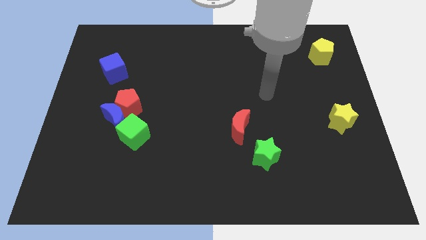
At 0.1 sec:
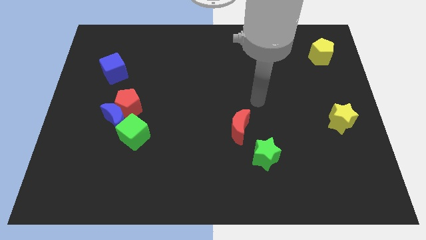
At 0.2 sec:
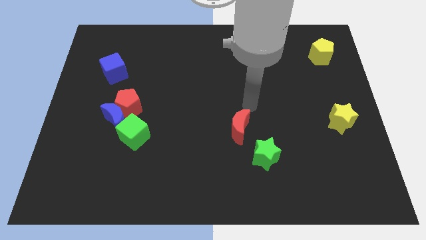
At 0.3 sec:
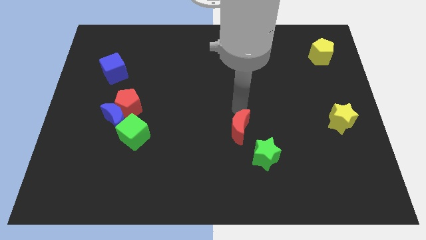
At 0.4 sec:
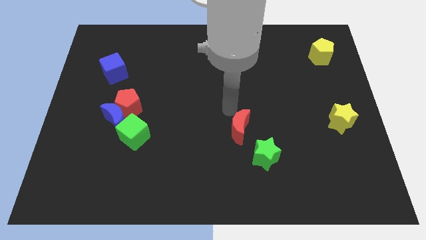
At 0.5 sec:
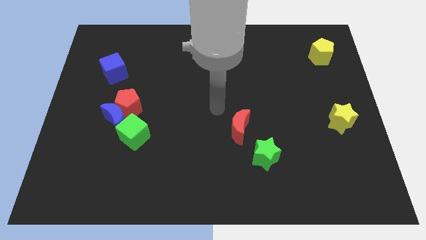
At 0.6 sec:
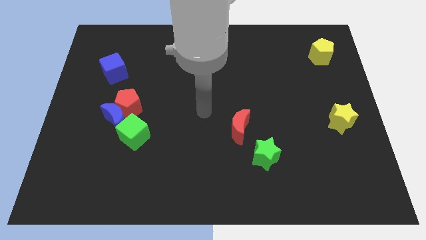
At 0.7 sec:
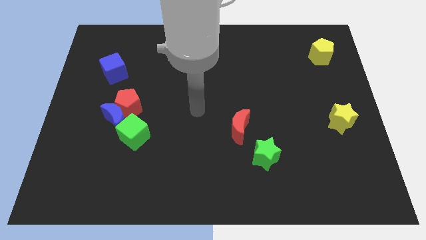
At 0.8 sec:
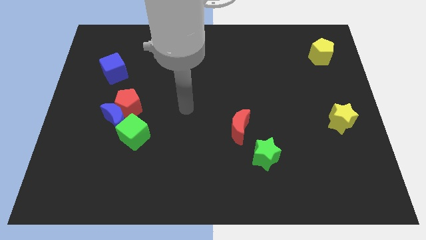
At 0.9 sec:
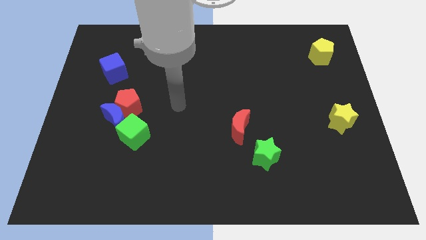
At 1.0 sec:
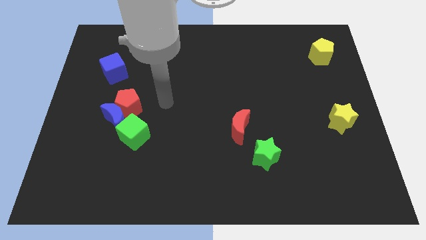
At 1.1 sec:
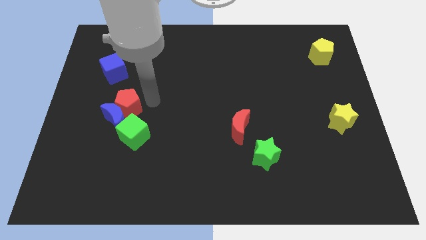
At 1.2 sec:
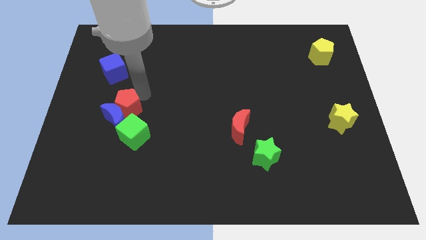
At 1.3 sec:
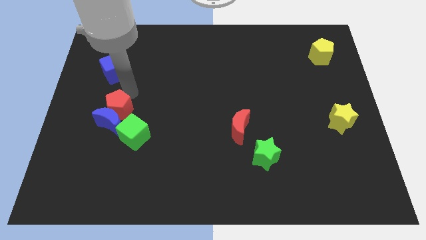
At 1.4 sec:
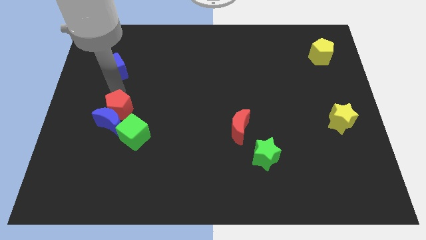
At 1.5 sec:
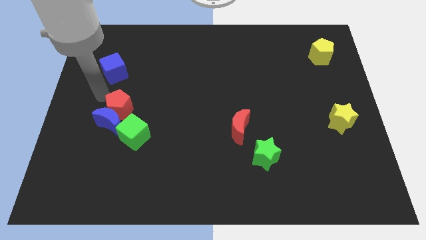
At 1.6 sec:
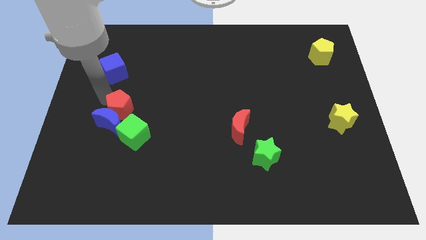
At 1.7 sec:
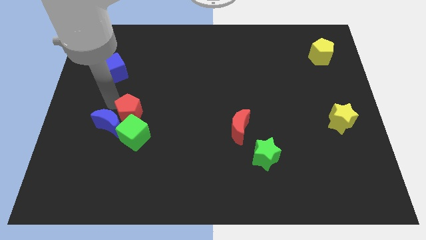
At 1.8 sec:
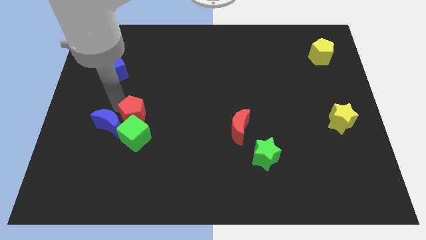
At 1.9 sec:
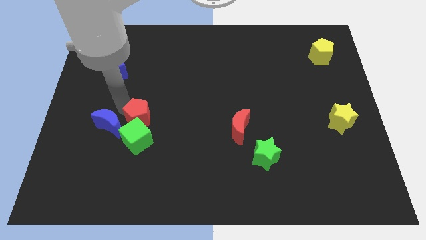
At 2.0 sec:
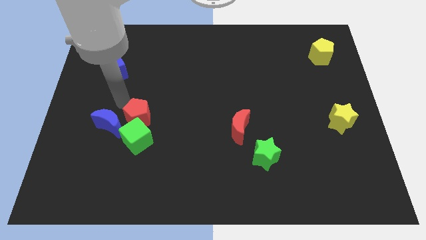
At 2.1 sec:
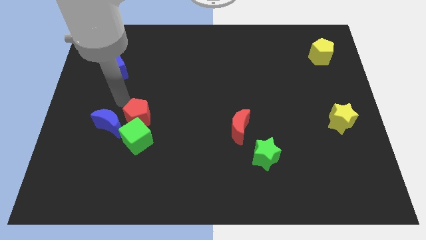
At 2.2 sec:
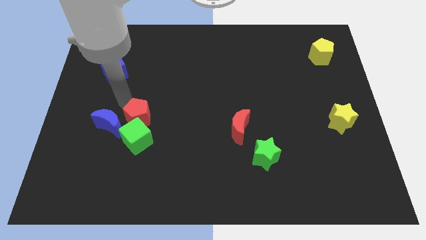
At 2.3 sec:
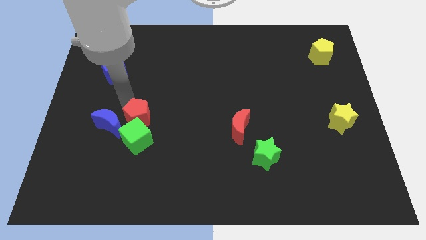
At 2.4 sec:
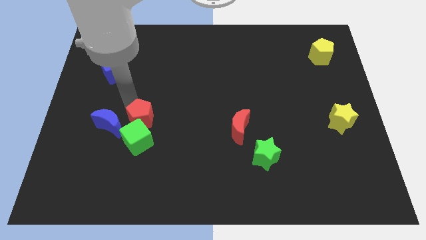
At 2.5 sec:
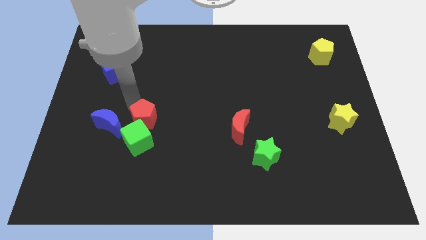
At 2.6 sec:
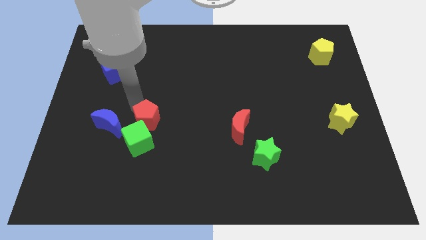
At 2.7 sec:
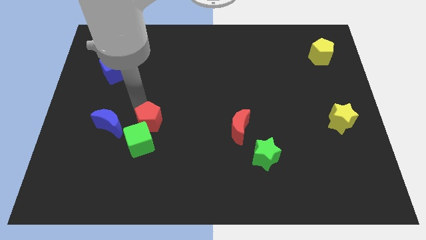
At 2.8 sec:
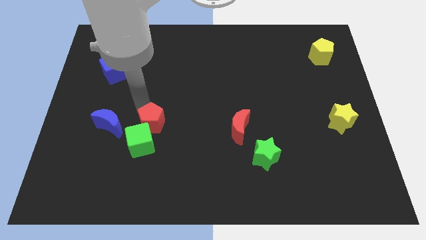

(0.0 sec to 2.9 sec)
move the red pentagon somewhat down and then to the right

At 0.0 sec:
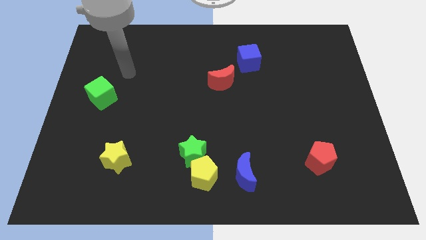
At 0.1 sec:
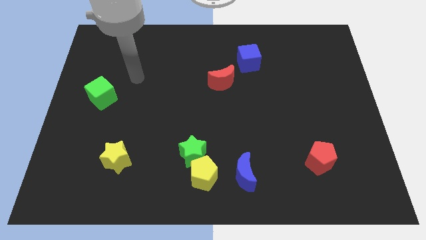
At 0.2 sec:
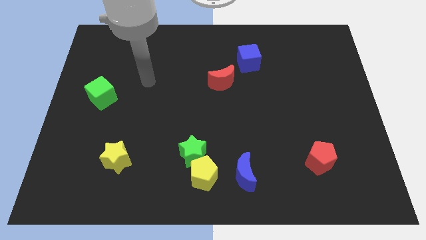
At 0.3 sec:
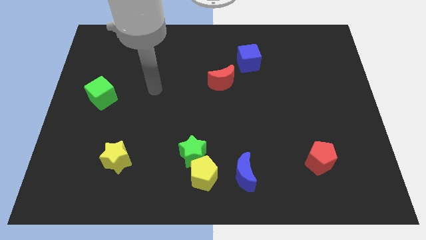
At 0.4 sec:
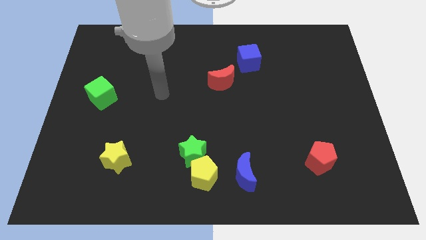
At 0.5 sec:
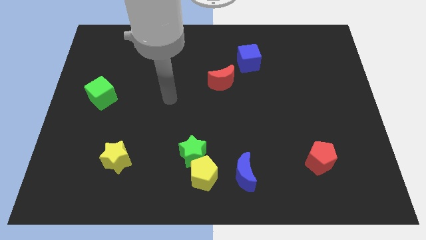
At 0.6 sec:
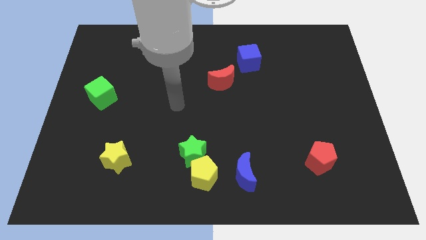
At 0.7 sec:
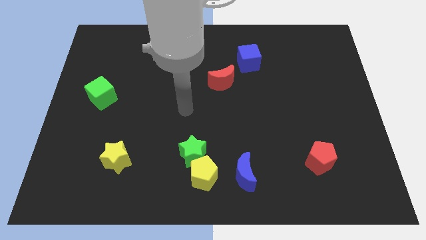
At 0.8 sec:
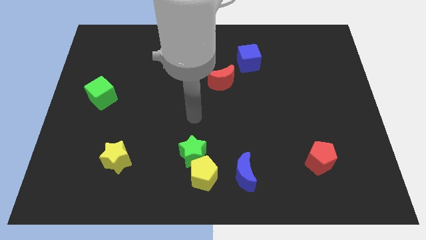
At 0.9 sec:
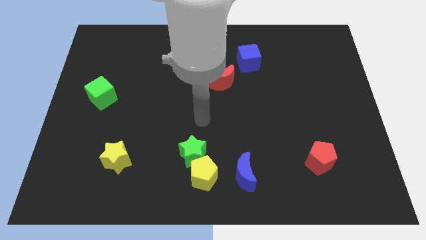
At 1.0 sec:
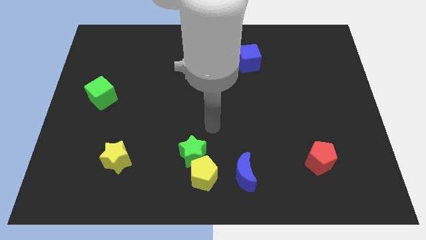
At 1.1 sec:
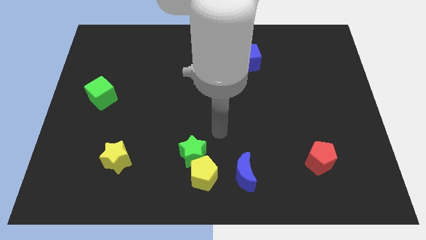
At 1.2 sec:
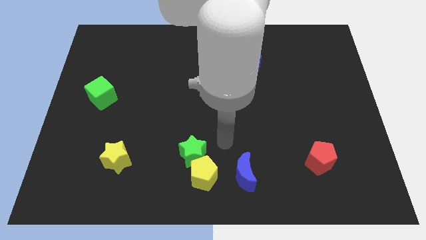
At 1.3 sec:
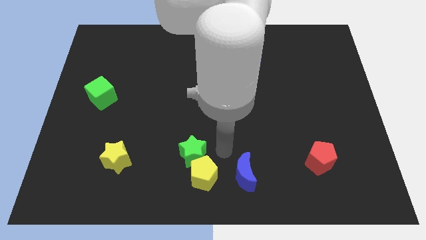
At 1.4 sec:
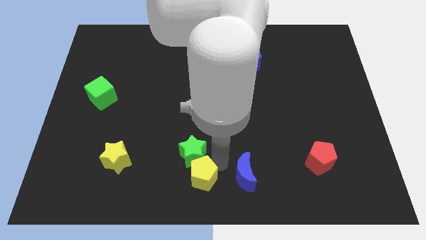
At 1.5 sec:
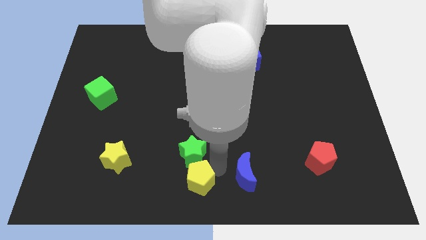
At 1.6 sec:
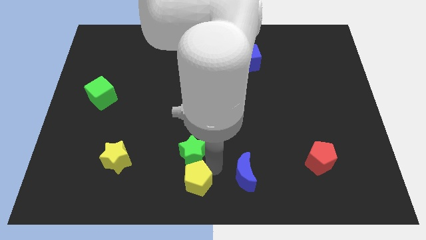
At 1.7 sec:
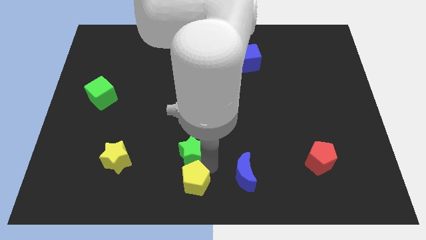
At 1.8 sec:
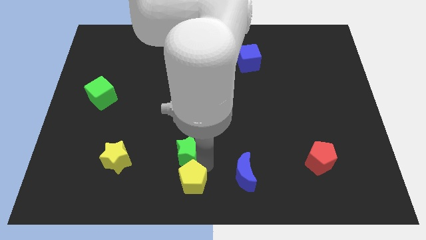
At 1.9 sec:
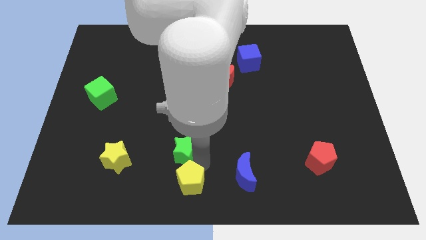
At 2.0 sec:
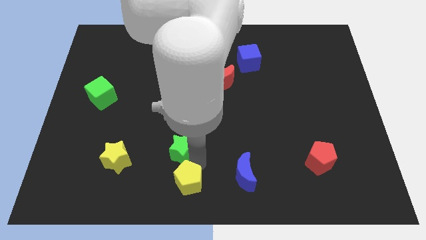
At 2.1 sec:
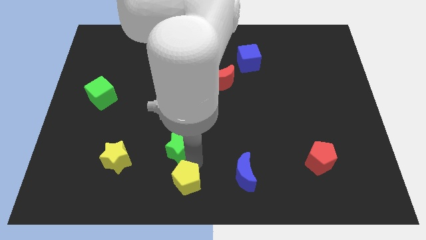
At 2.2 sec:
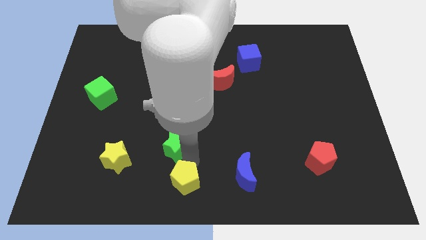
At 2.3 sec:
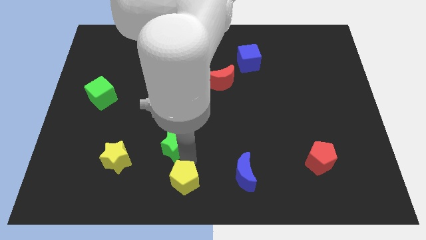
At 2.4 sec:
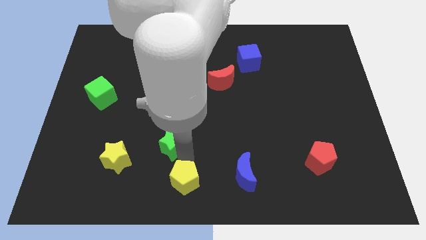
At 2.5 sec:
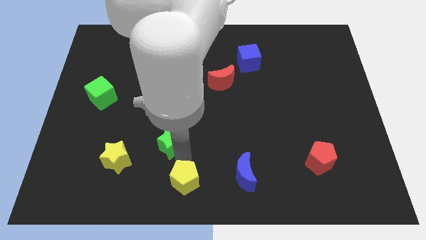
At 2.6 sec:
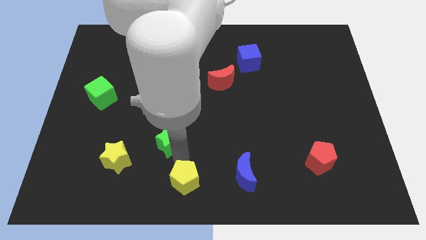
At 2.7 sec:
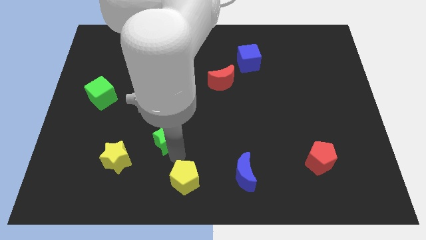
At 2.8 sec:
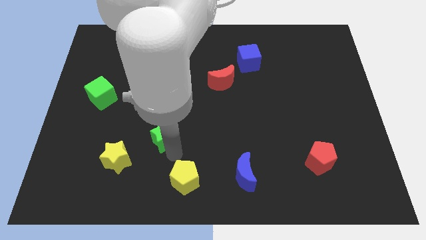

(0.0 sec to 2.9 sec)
slide the green star slightly up and left

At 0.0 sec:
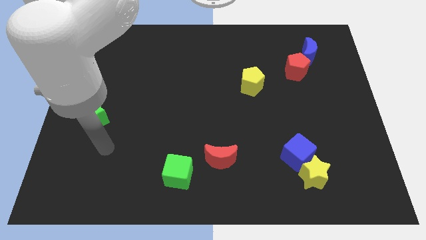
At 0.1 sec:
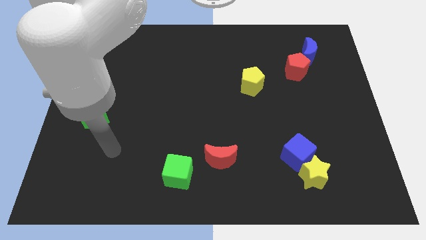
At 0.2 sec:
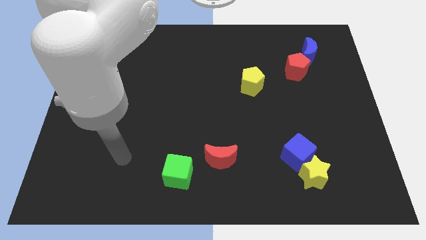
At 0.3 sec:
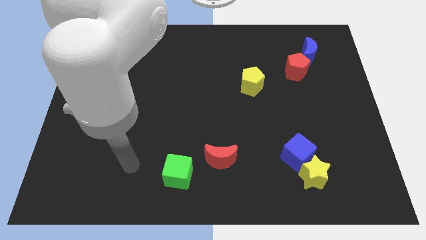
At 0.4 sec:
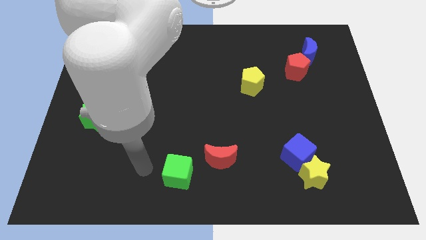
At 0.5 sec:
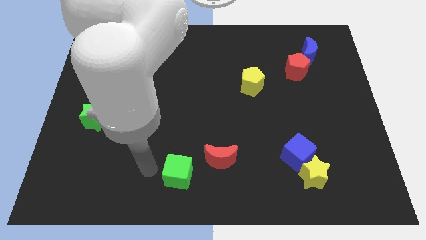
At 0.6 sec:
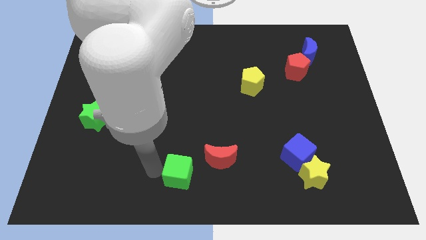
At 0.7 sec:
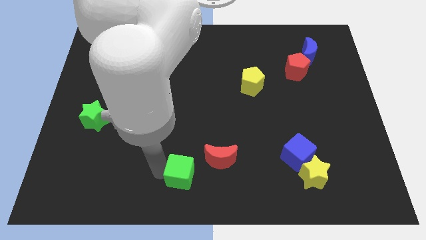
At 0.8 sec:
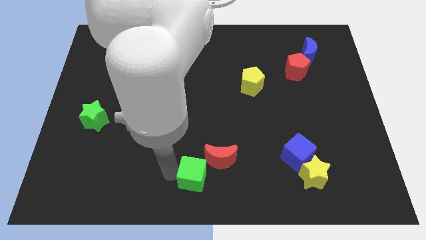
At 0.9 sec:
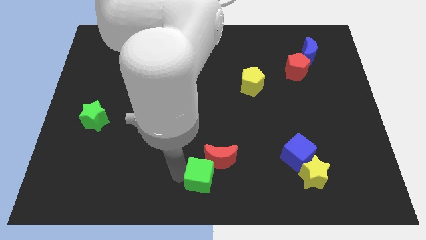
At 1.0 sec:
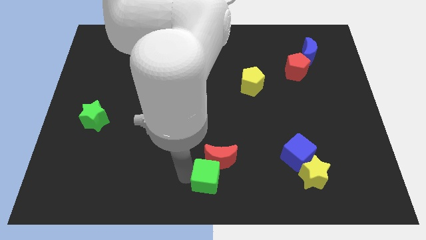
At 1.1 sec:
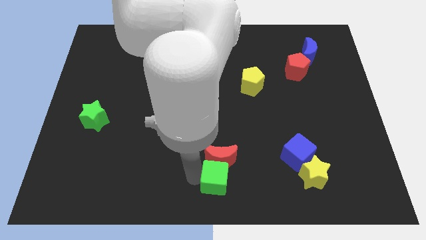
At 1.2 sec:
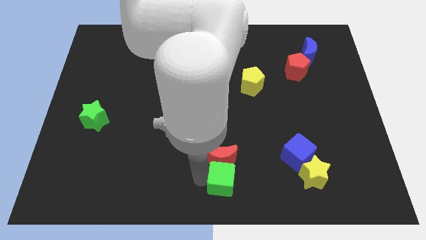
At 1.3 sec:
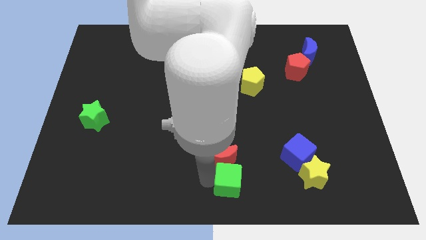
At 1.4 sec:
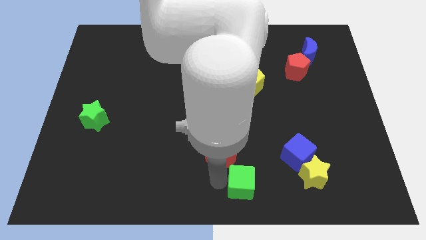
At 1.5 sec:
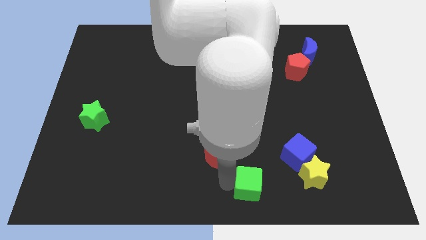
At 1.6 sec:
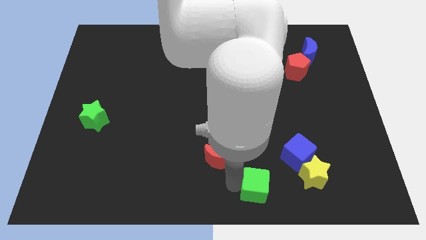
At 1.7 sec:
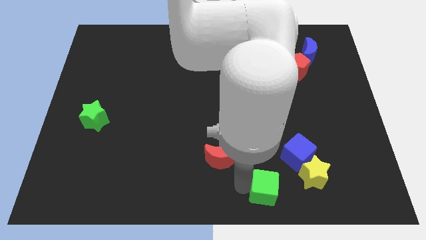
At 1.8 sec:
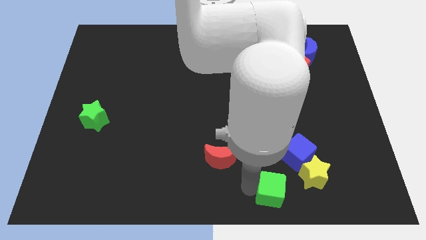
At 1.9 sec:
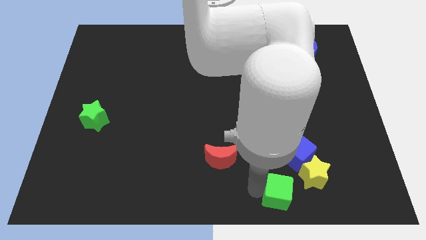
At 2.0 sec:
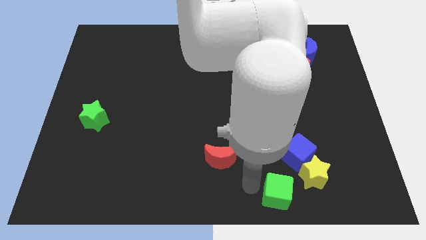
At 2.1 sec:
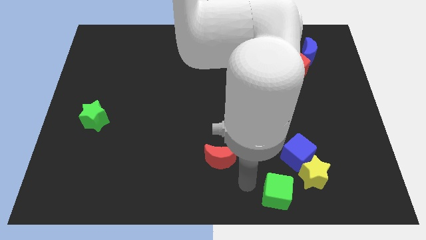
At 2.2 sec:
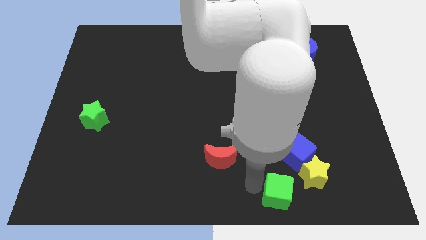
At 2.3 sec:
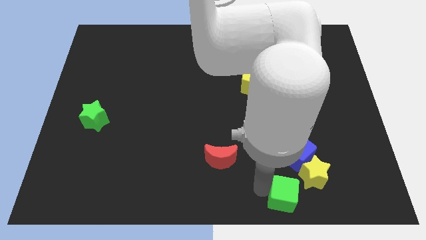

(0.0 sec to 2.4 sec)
push the green cube right

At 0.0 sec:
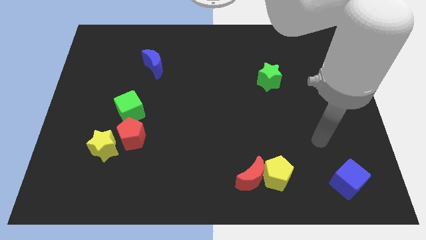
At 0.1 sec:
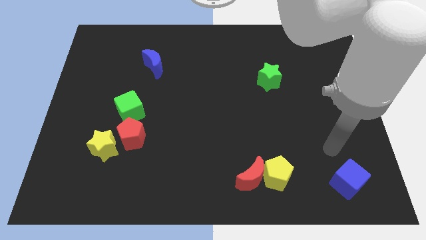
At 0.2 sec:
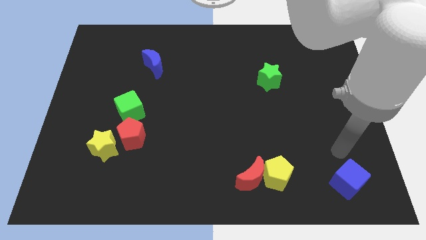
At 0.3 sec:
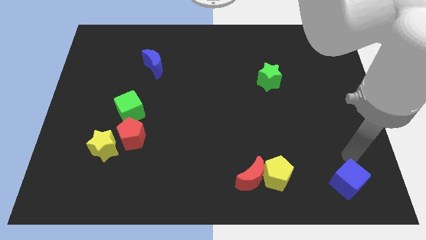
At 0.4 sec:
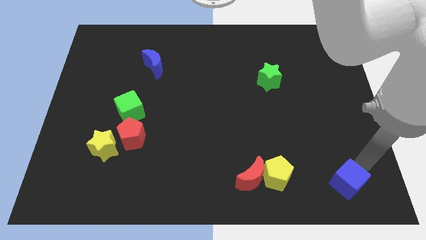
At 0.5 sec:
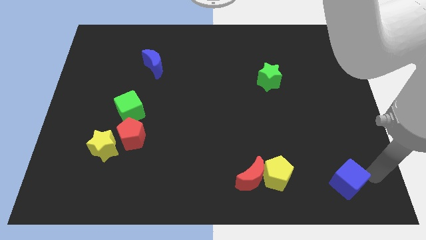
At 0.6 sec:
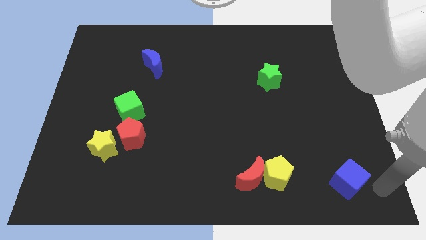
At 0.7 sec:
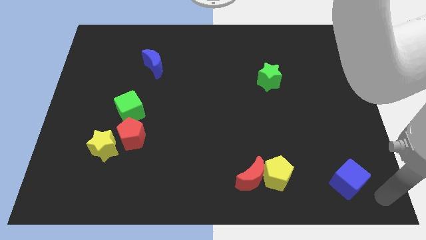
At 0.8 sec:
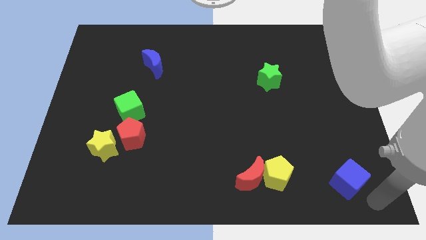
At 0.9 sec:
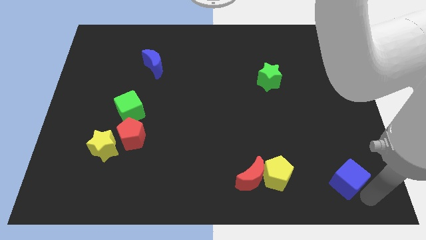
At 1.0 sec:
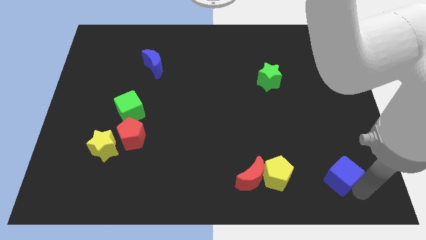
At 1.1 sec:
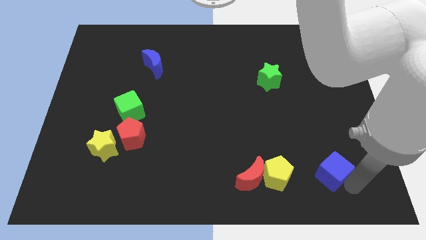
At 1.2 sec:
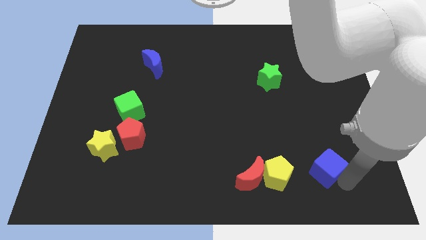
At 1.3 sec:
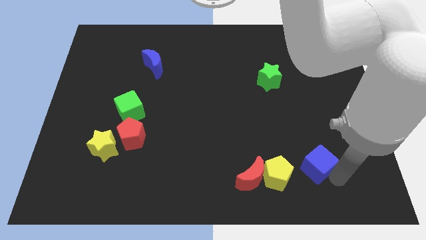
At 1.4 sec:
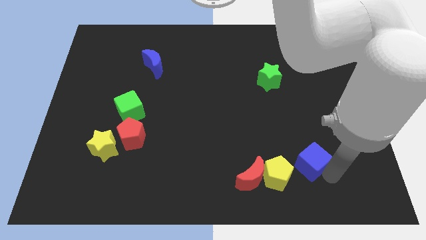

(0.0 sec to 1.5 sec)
move the blue cube a bit upwards and then to the left
